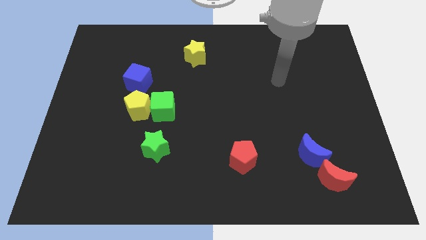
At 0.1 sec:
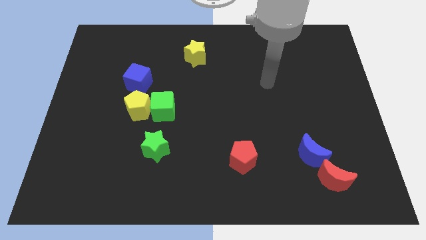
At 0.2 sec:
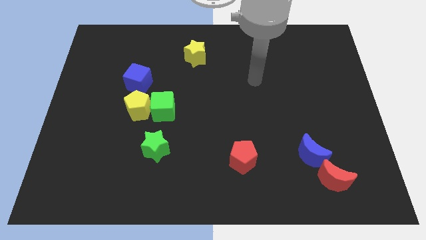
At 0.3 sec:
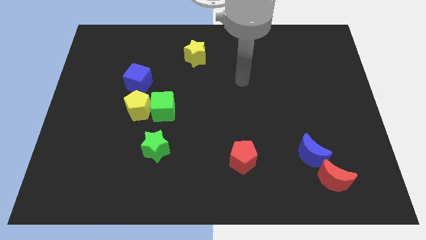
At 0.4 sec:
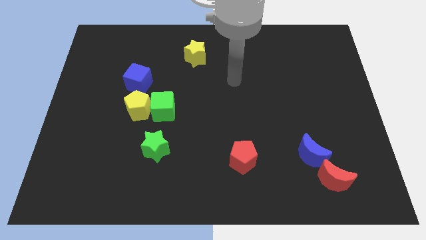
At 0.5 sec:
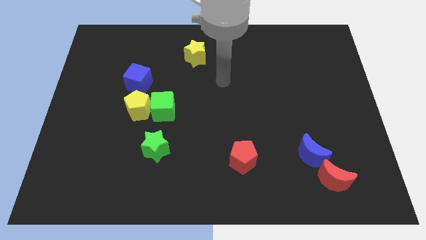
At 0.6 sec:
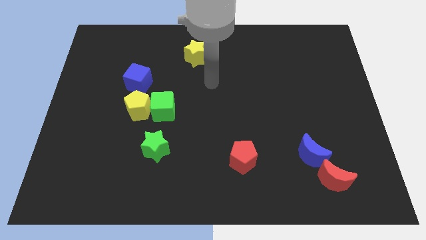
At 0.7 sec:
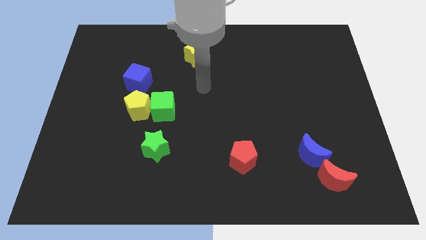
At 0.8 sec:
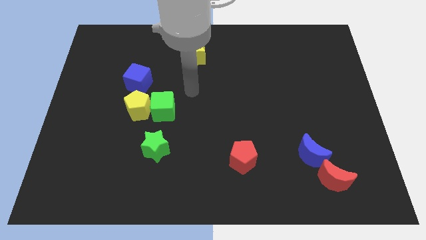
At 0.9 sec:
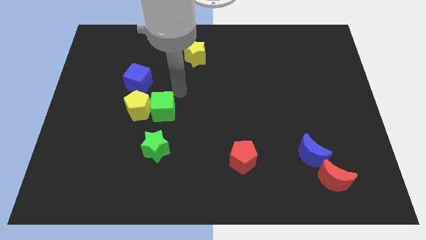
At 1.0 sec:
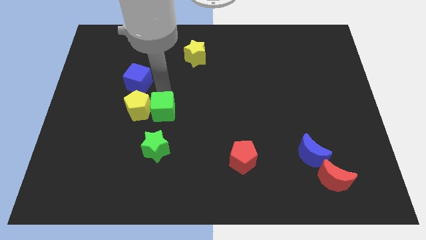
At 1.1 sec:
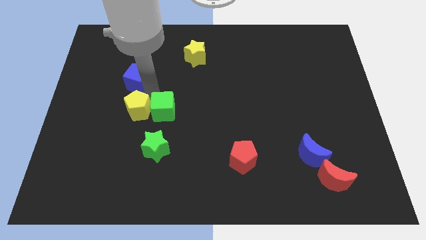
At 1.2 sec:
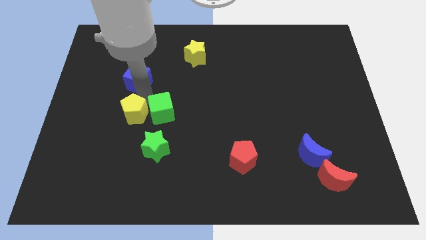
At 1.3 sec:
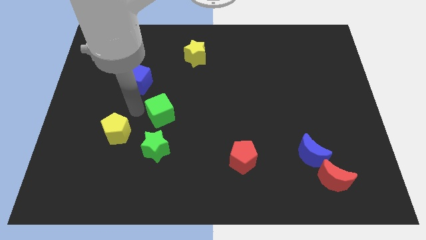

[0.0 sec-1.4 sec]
pull the green cube apart from the yellow pentagon

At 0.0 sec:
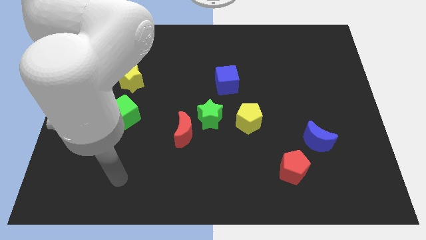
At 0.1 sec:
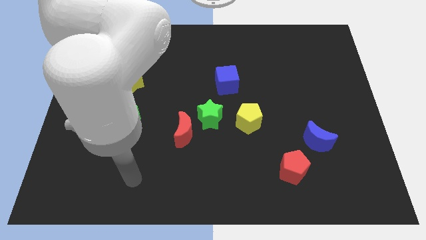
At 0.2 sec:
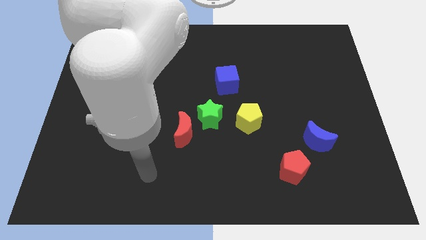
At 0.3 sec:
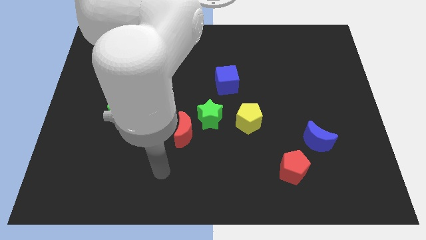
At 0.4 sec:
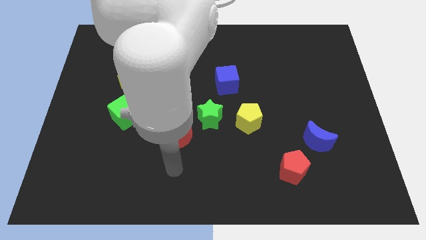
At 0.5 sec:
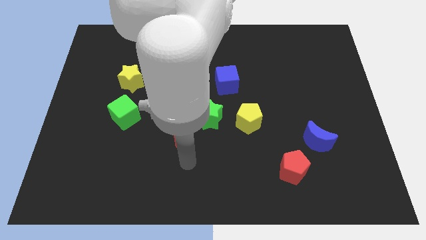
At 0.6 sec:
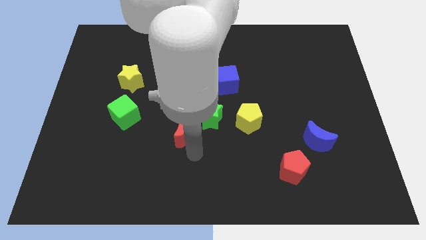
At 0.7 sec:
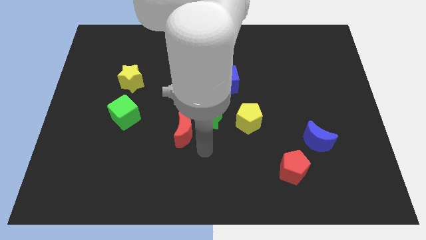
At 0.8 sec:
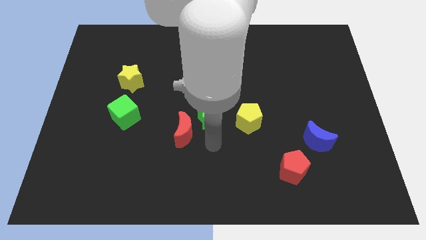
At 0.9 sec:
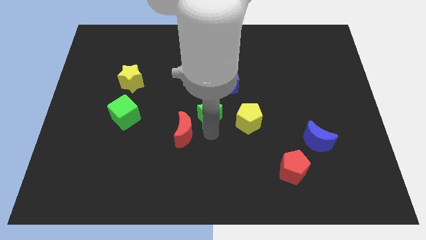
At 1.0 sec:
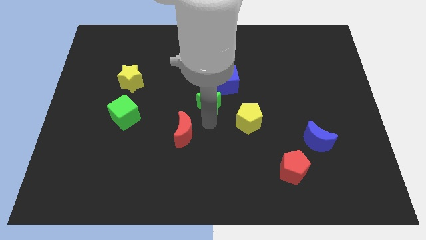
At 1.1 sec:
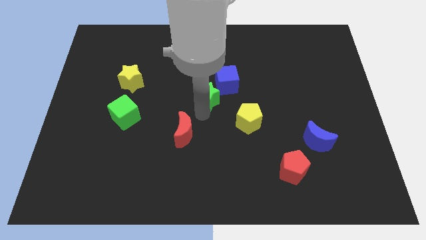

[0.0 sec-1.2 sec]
pull the red moon apart from the green star

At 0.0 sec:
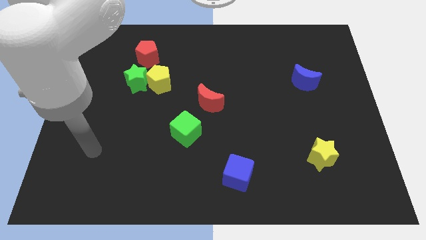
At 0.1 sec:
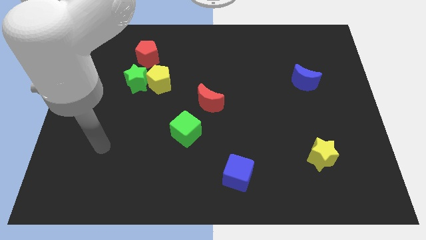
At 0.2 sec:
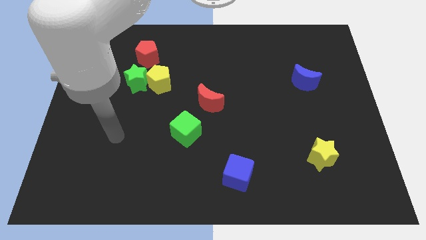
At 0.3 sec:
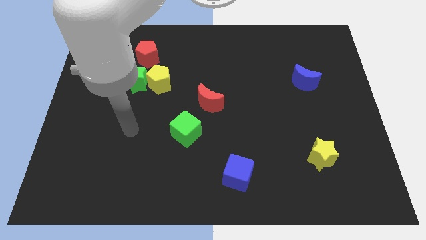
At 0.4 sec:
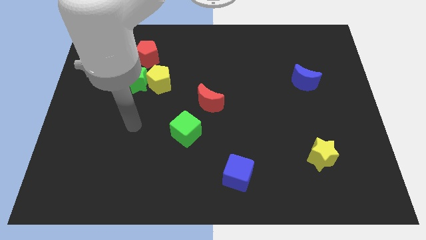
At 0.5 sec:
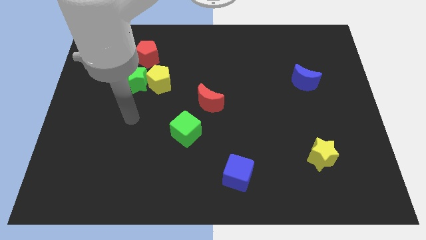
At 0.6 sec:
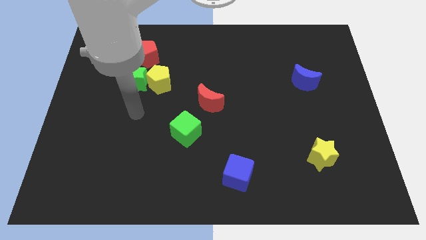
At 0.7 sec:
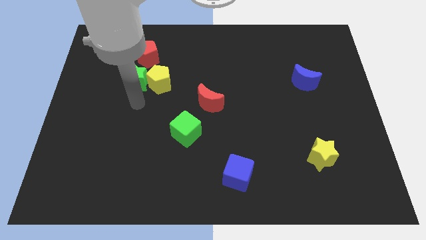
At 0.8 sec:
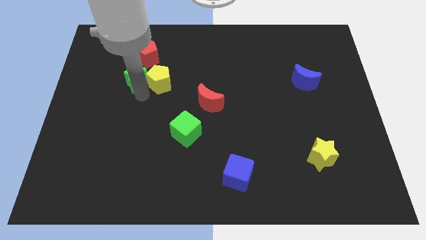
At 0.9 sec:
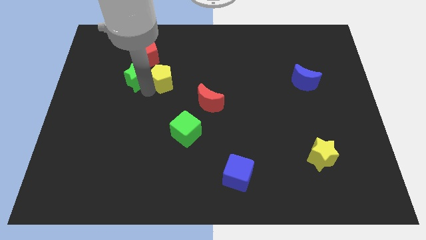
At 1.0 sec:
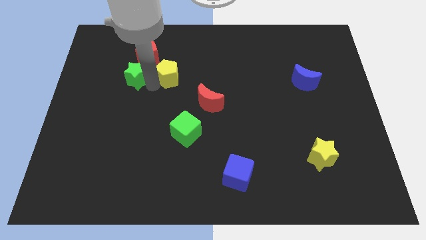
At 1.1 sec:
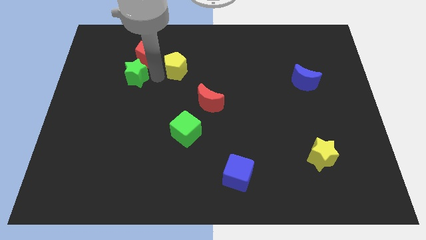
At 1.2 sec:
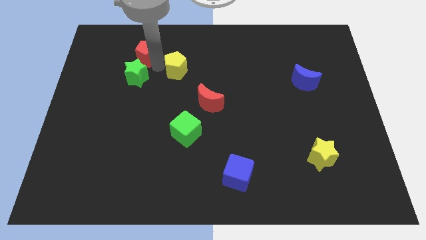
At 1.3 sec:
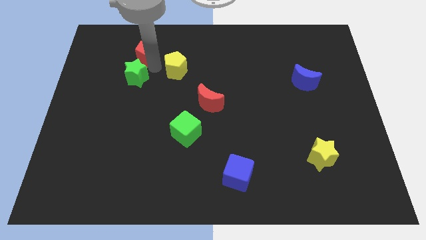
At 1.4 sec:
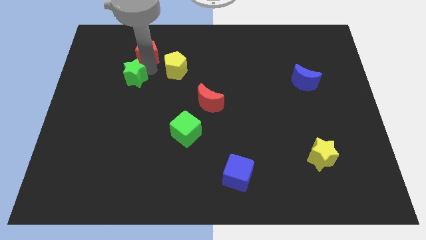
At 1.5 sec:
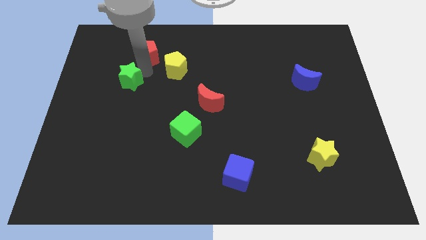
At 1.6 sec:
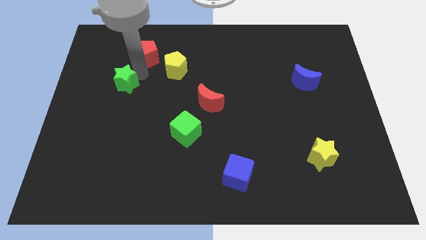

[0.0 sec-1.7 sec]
separate the green star from the yellow pentagon and red pentagon

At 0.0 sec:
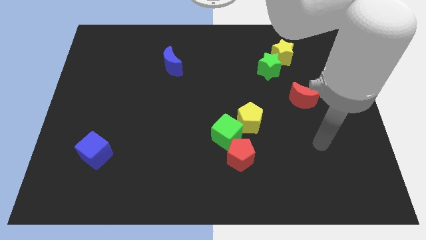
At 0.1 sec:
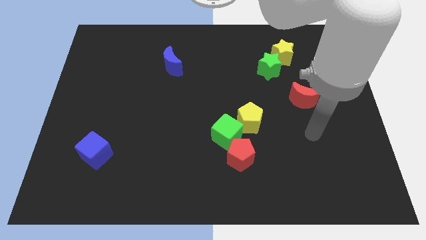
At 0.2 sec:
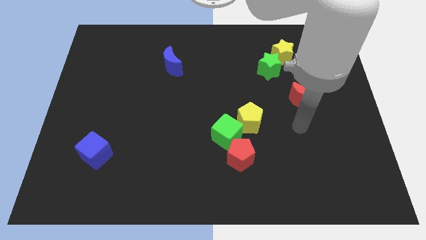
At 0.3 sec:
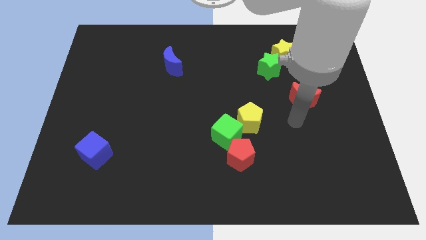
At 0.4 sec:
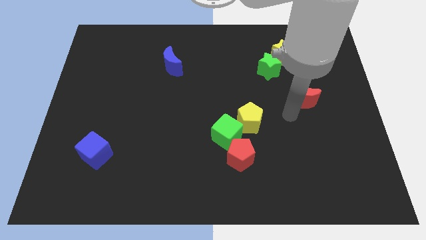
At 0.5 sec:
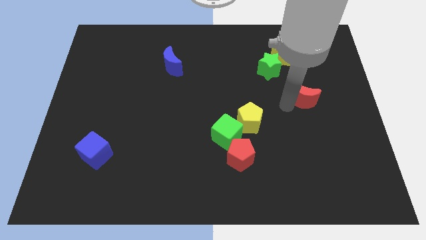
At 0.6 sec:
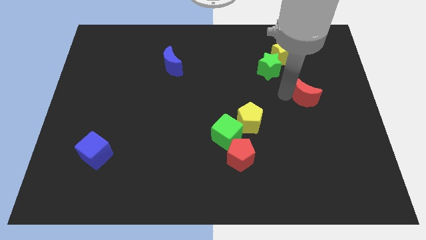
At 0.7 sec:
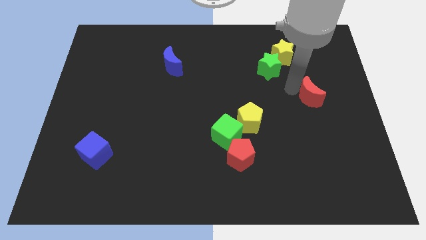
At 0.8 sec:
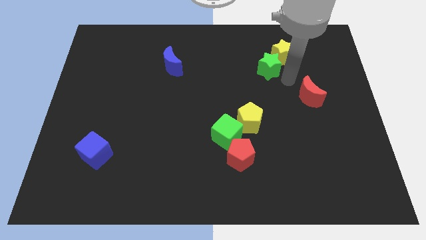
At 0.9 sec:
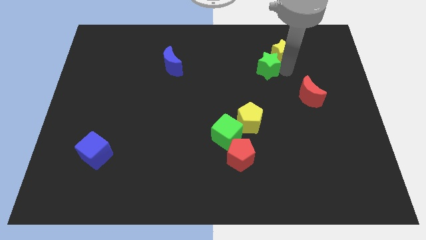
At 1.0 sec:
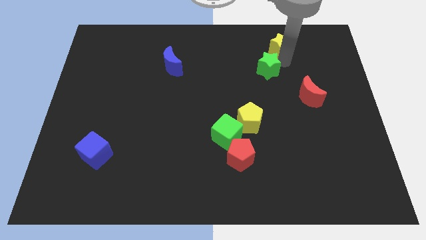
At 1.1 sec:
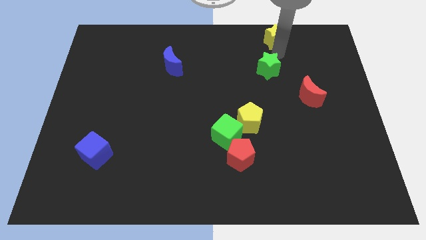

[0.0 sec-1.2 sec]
move the green star away from the yellow star

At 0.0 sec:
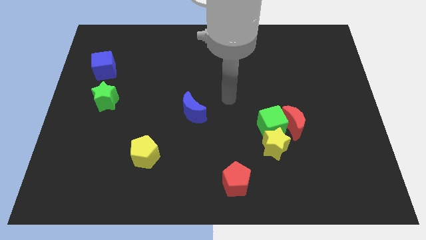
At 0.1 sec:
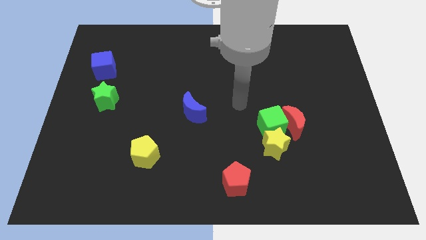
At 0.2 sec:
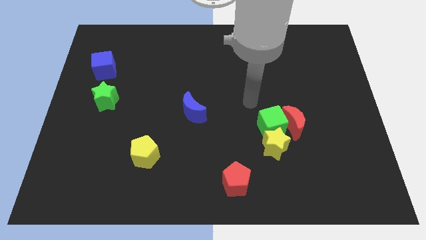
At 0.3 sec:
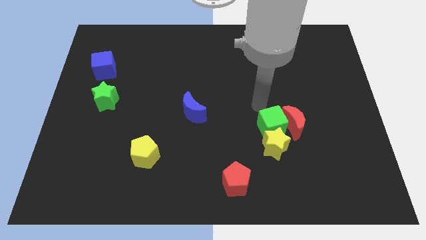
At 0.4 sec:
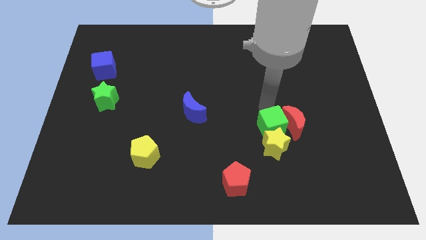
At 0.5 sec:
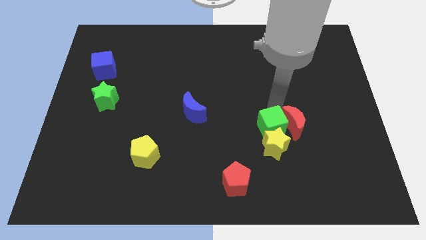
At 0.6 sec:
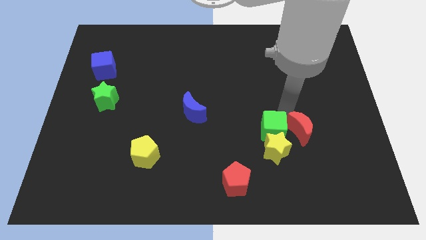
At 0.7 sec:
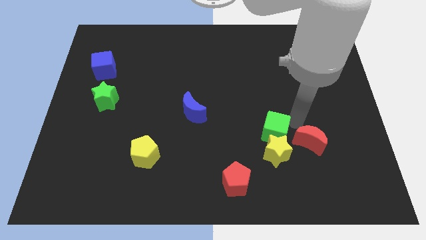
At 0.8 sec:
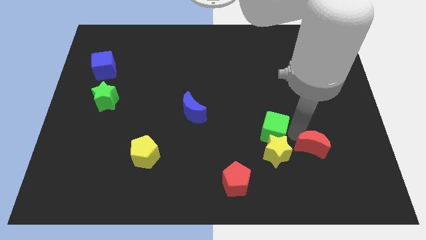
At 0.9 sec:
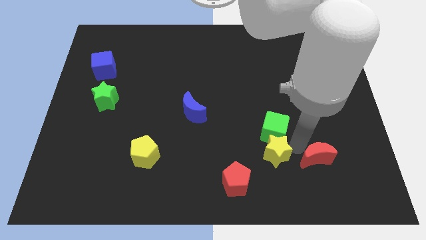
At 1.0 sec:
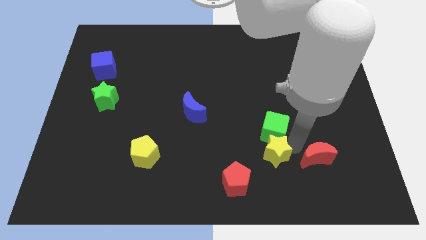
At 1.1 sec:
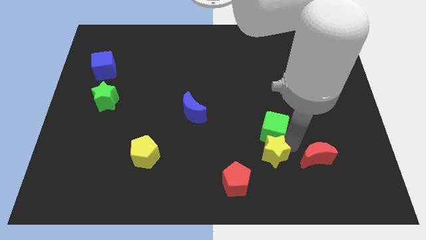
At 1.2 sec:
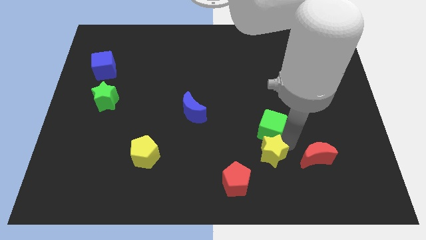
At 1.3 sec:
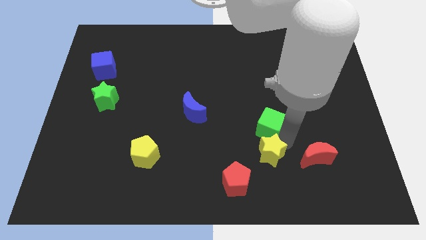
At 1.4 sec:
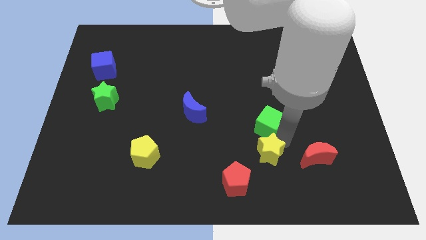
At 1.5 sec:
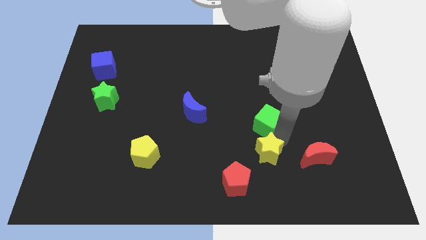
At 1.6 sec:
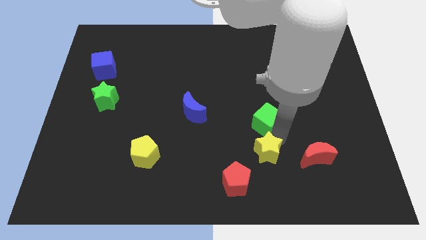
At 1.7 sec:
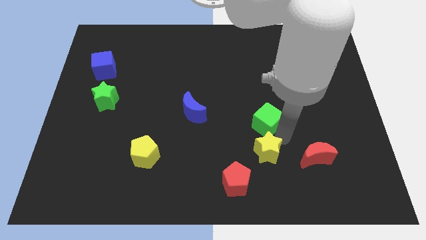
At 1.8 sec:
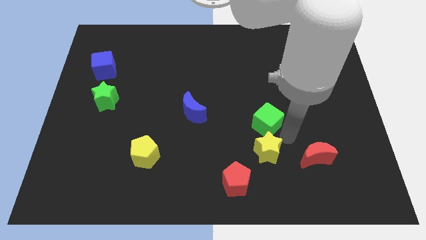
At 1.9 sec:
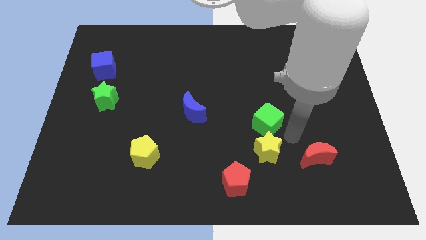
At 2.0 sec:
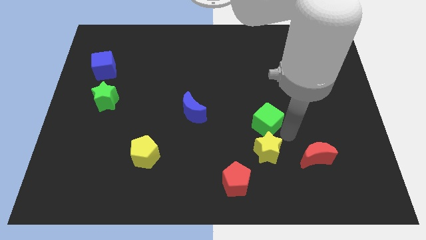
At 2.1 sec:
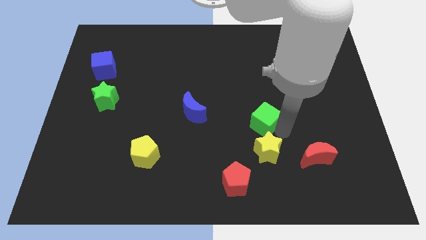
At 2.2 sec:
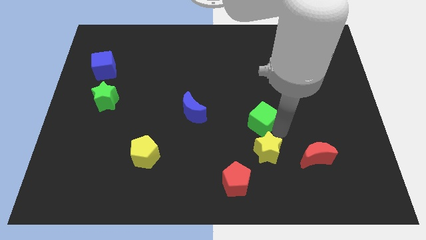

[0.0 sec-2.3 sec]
pull the green cube apart from the red moon and yellow star

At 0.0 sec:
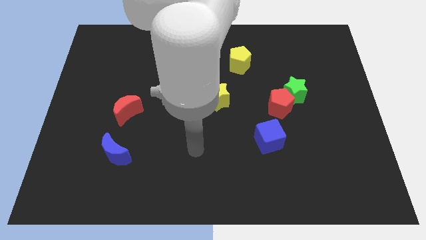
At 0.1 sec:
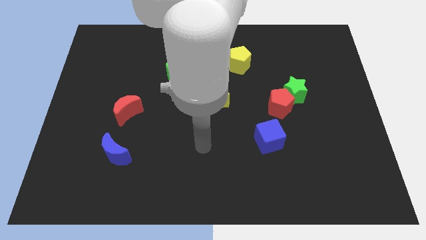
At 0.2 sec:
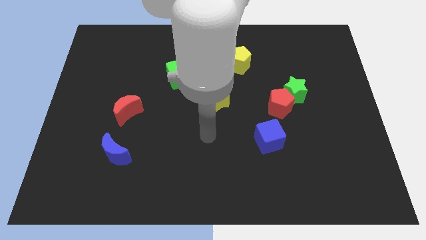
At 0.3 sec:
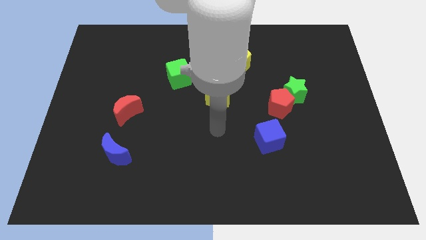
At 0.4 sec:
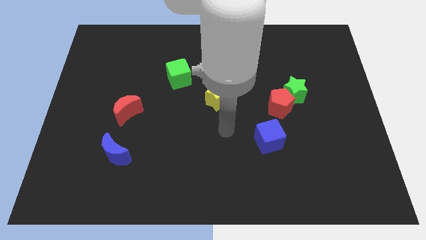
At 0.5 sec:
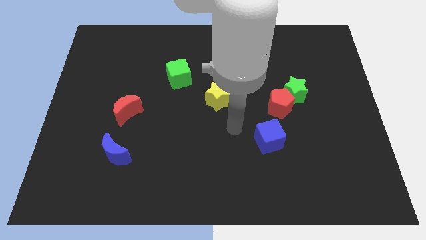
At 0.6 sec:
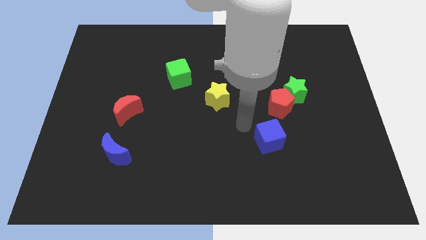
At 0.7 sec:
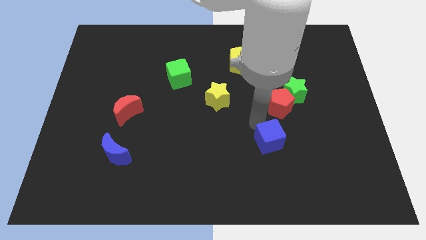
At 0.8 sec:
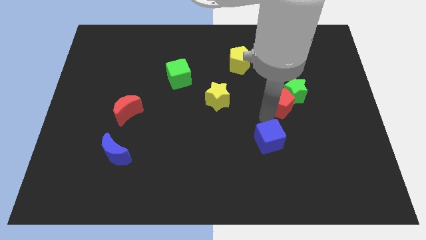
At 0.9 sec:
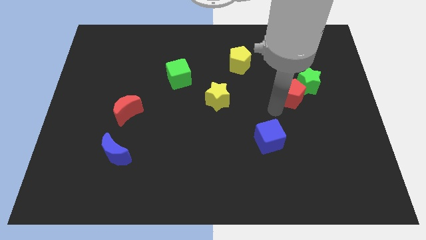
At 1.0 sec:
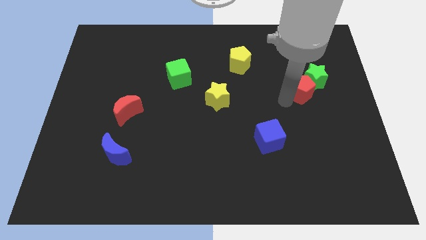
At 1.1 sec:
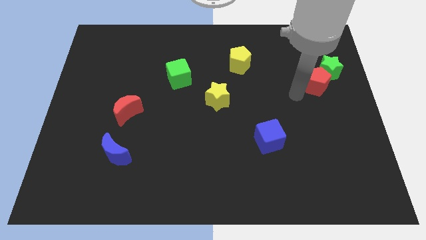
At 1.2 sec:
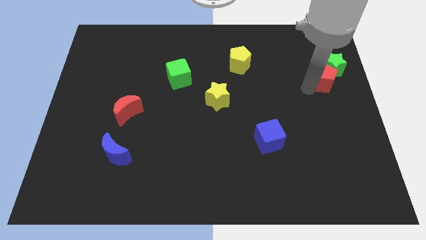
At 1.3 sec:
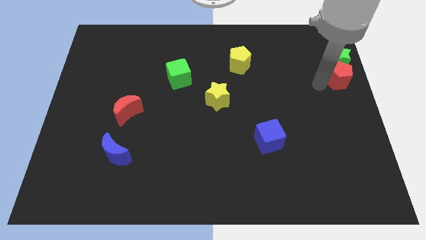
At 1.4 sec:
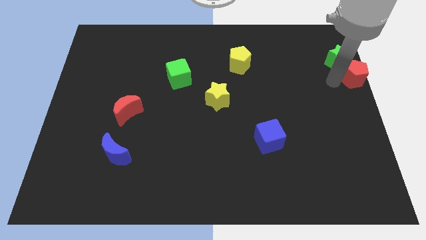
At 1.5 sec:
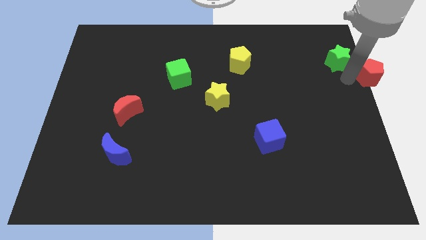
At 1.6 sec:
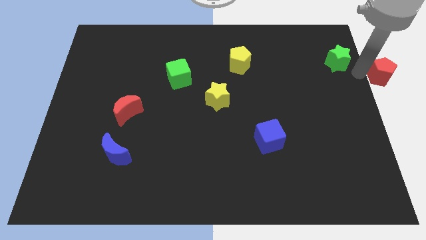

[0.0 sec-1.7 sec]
pull the green star apart from the red pentagon
